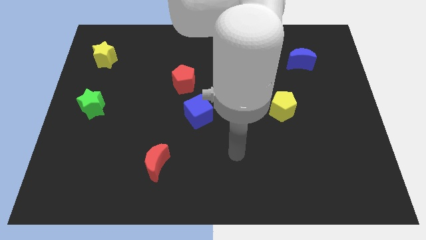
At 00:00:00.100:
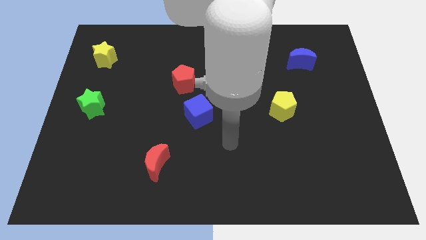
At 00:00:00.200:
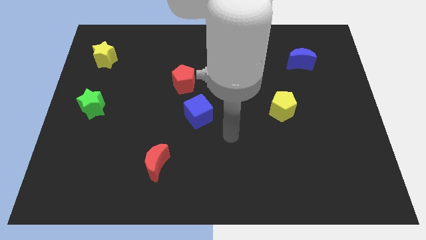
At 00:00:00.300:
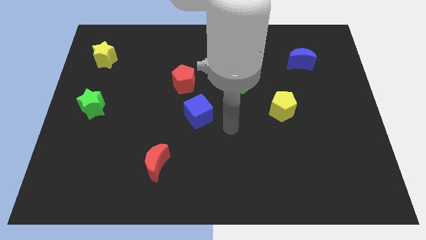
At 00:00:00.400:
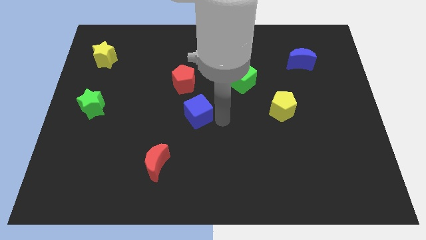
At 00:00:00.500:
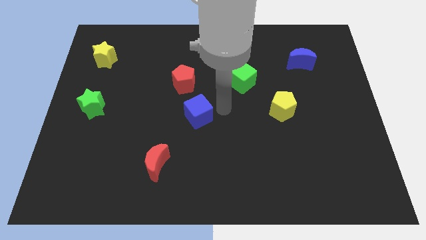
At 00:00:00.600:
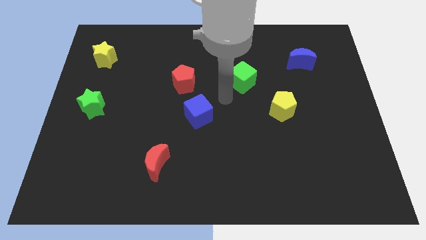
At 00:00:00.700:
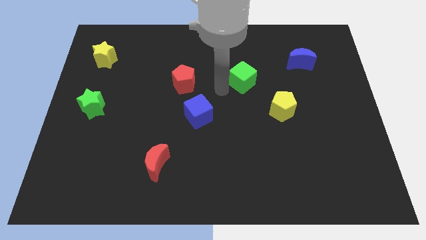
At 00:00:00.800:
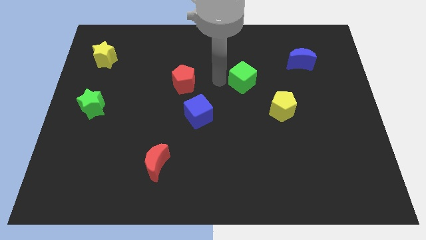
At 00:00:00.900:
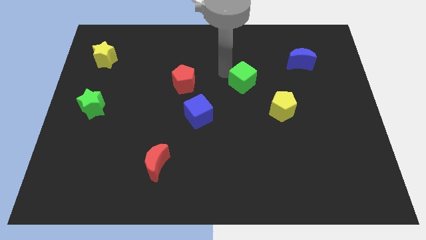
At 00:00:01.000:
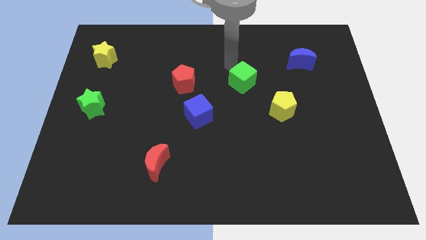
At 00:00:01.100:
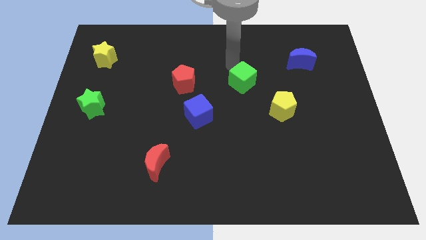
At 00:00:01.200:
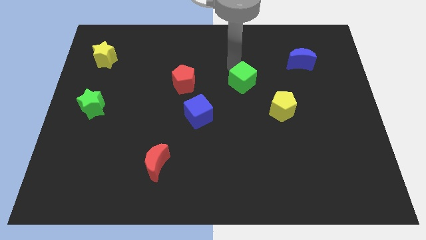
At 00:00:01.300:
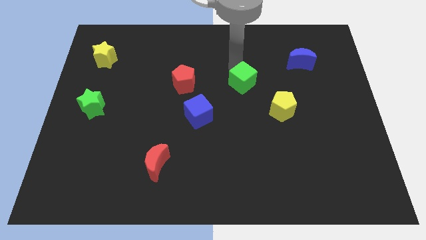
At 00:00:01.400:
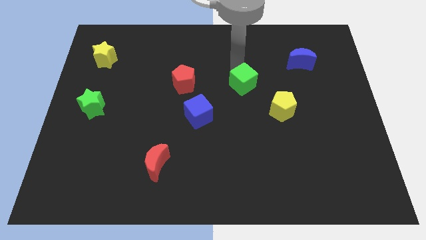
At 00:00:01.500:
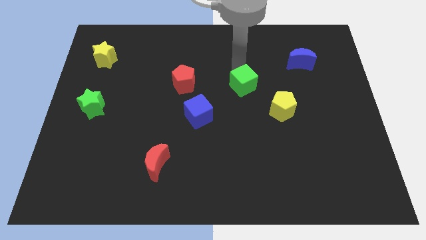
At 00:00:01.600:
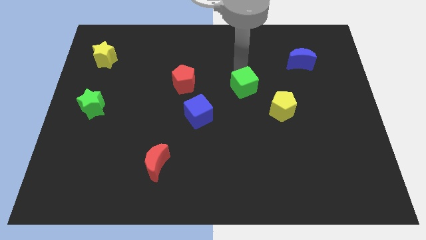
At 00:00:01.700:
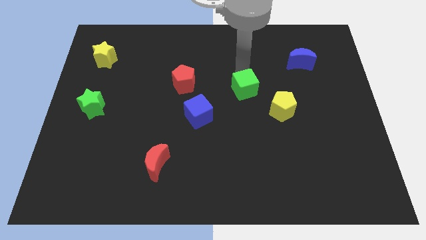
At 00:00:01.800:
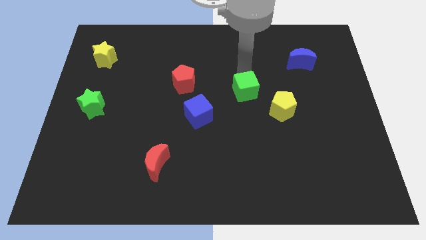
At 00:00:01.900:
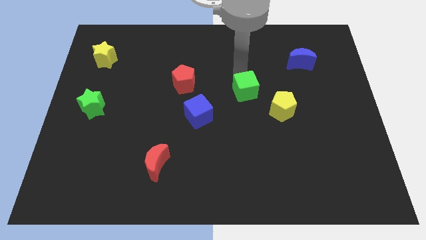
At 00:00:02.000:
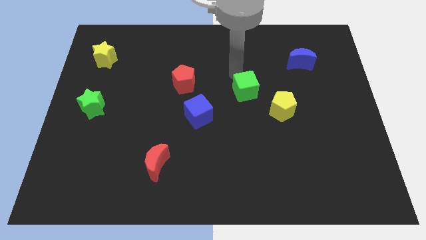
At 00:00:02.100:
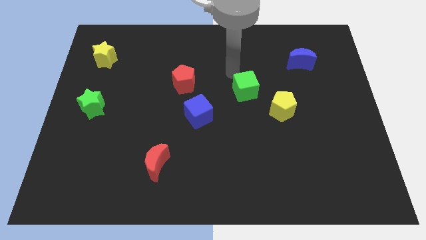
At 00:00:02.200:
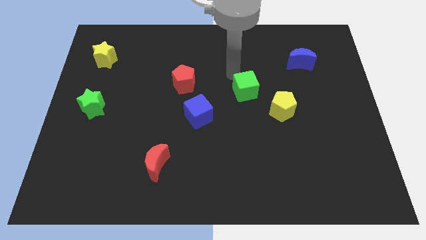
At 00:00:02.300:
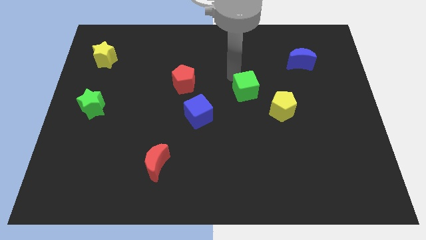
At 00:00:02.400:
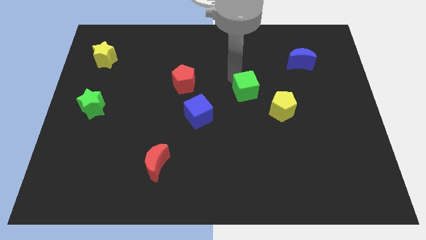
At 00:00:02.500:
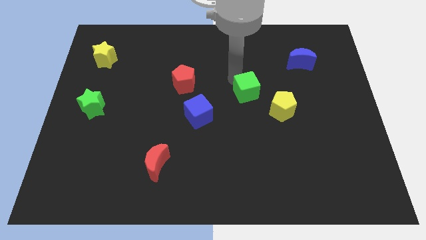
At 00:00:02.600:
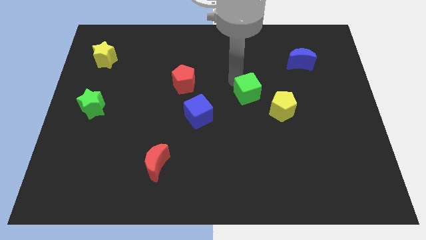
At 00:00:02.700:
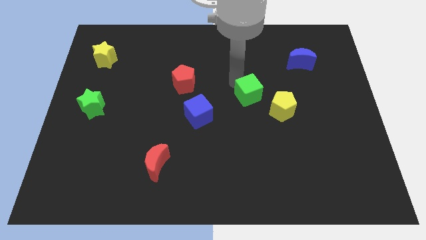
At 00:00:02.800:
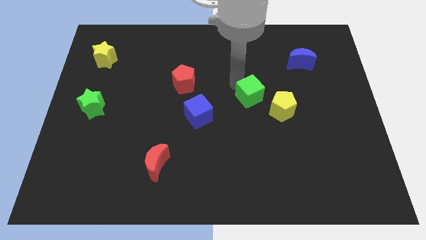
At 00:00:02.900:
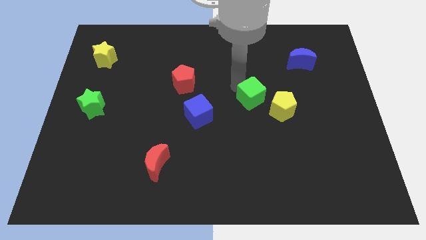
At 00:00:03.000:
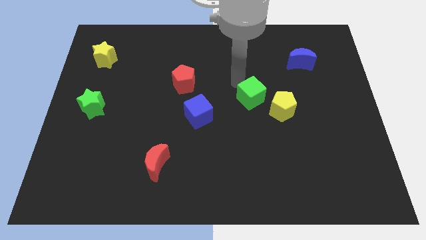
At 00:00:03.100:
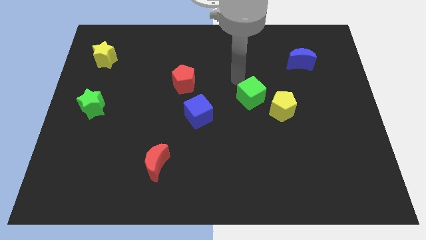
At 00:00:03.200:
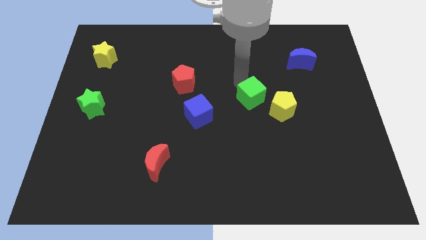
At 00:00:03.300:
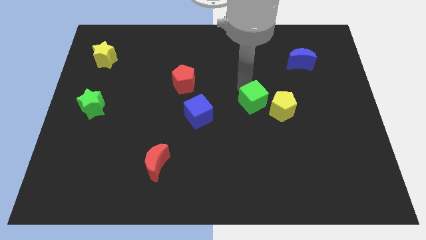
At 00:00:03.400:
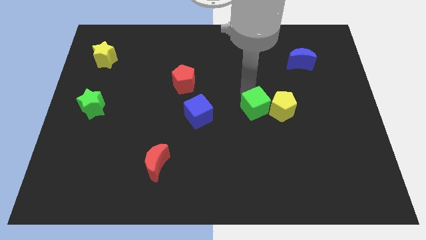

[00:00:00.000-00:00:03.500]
move the green cube a bit down and to the right diagonally

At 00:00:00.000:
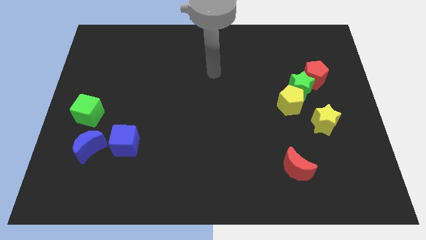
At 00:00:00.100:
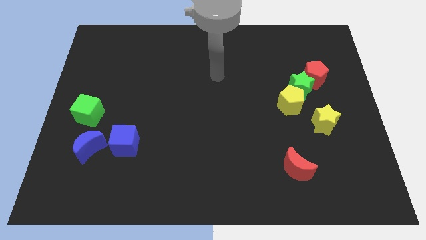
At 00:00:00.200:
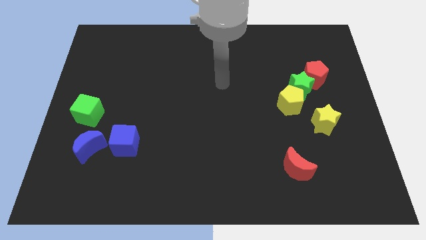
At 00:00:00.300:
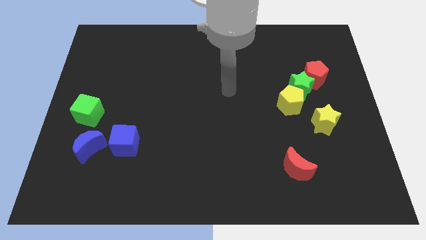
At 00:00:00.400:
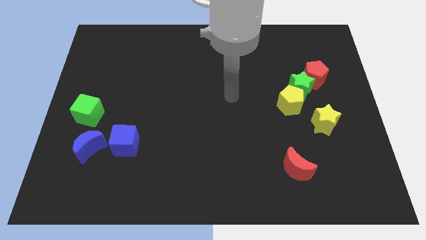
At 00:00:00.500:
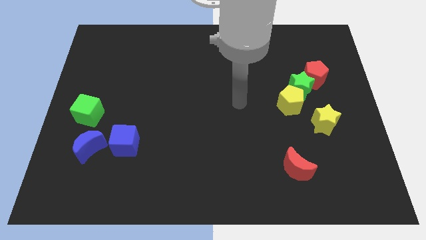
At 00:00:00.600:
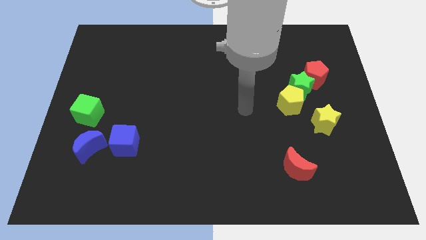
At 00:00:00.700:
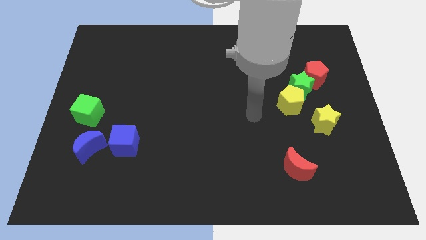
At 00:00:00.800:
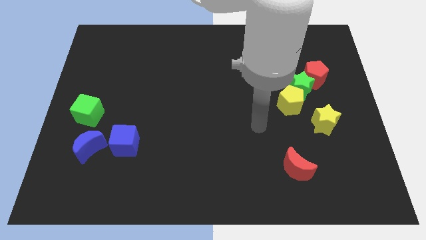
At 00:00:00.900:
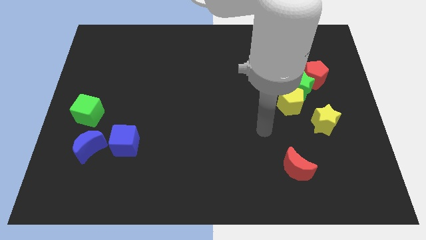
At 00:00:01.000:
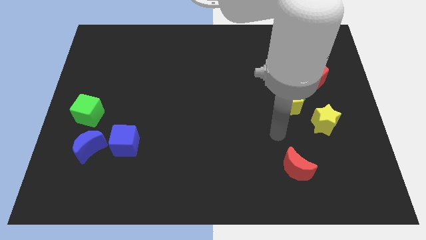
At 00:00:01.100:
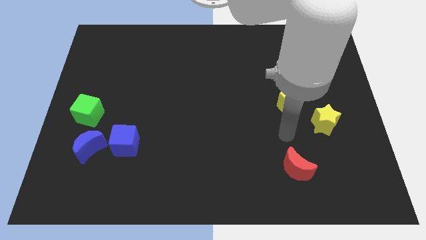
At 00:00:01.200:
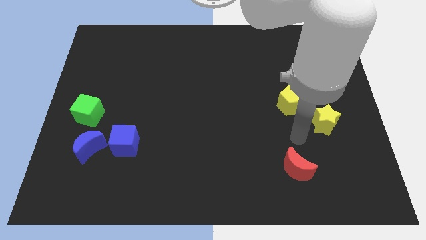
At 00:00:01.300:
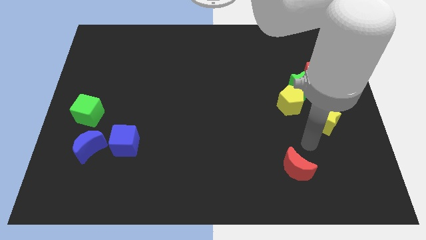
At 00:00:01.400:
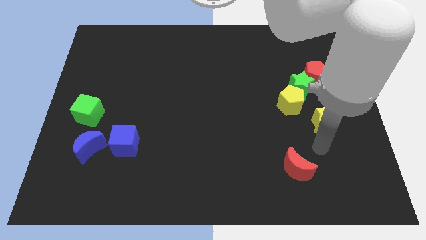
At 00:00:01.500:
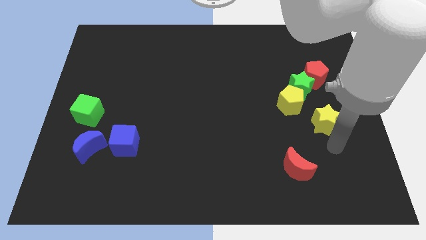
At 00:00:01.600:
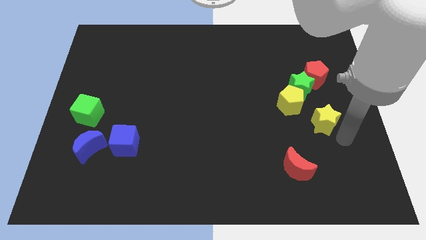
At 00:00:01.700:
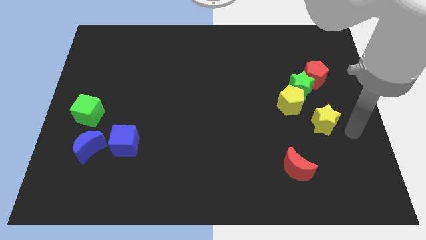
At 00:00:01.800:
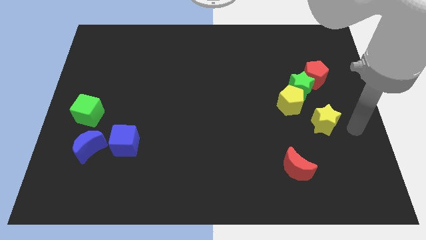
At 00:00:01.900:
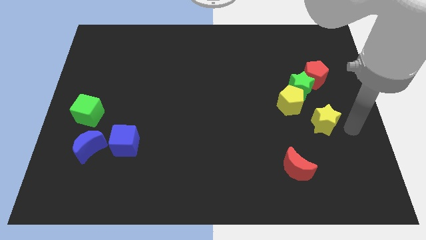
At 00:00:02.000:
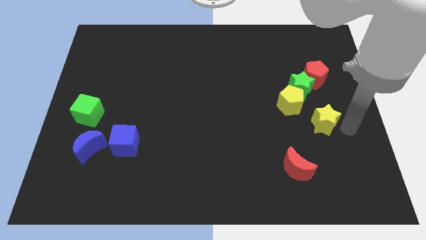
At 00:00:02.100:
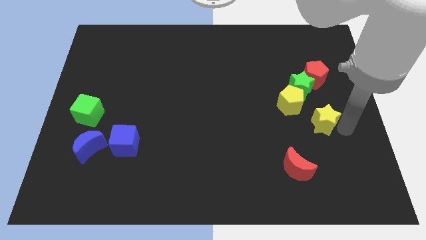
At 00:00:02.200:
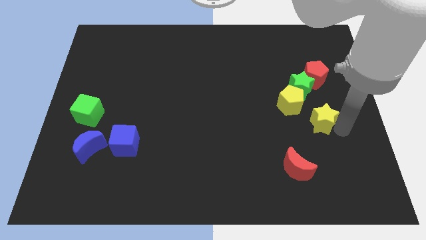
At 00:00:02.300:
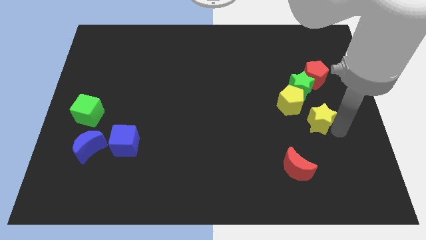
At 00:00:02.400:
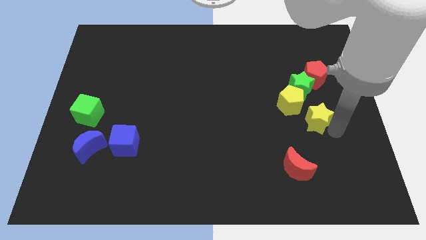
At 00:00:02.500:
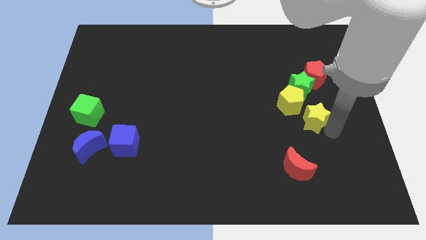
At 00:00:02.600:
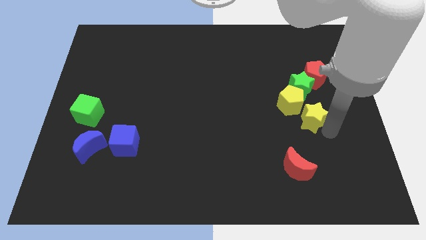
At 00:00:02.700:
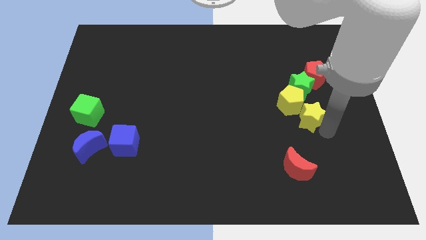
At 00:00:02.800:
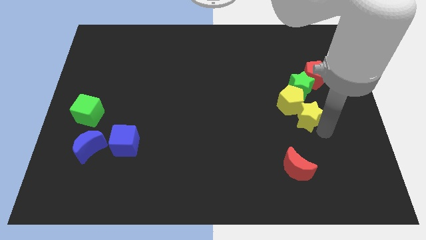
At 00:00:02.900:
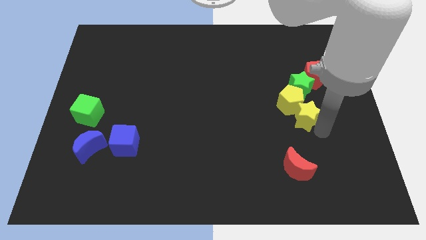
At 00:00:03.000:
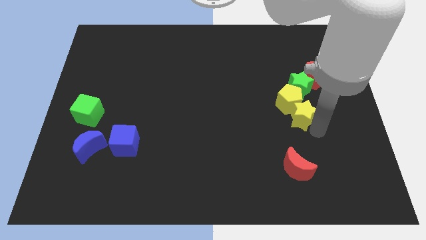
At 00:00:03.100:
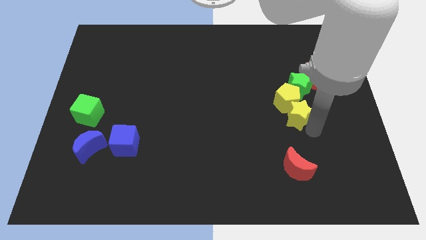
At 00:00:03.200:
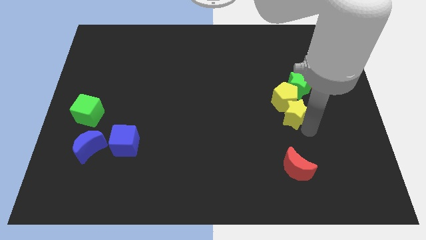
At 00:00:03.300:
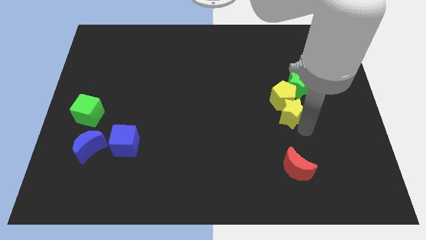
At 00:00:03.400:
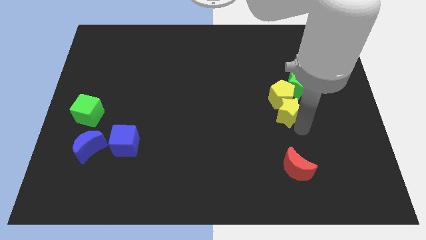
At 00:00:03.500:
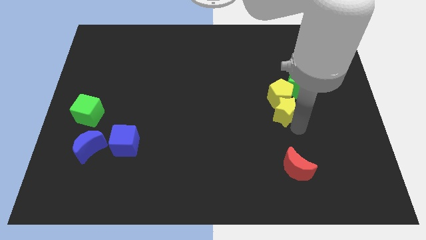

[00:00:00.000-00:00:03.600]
slide the yellow star slightly up and left

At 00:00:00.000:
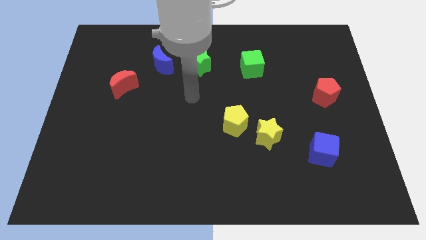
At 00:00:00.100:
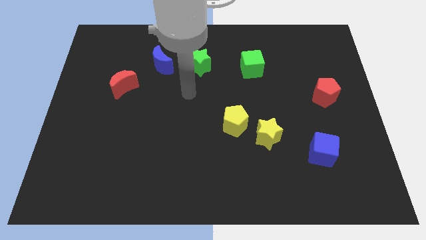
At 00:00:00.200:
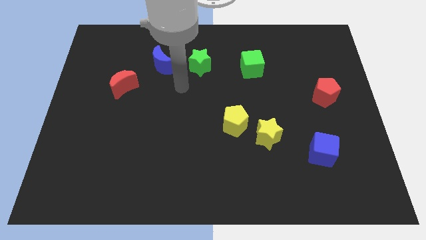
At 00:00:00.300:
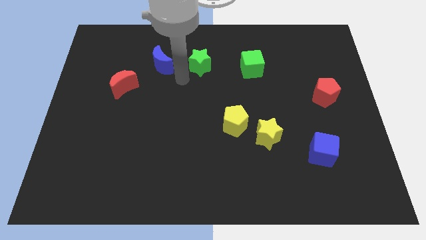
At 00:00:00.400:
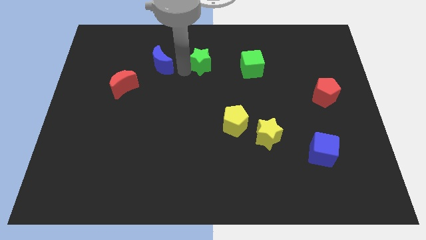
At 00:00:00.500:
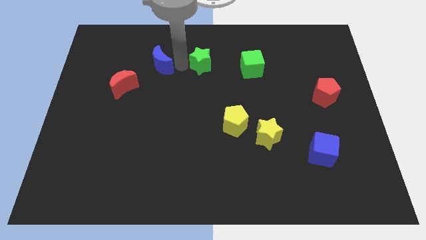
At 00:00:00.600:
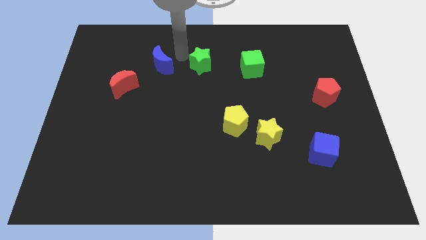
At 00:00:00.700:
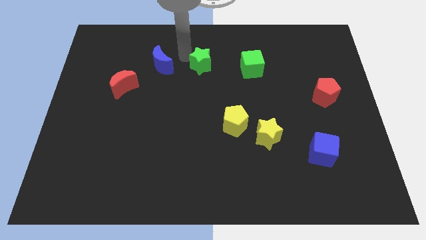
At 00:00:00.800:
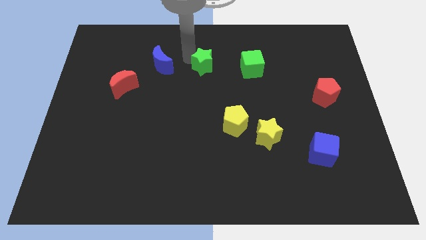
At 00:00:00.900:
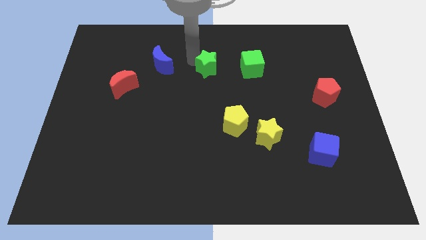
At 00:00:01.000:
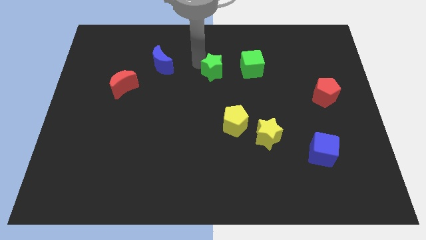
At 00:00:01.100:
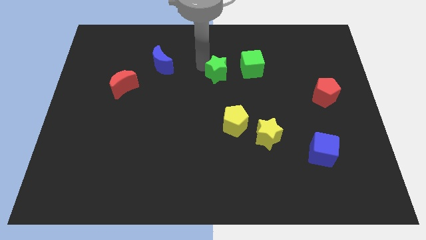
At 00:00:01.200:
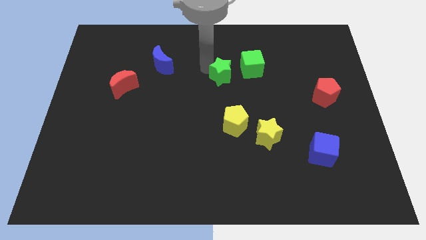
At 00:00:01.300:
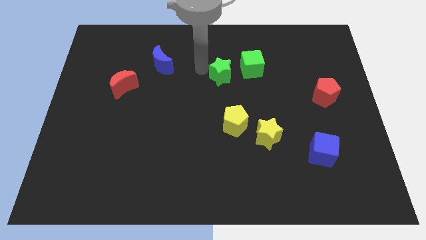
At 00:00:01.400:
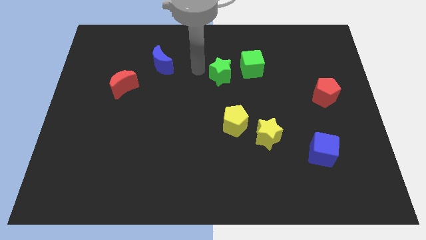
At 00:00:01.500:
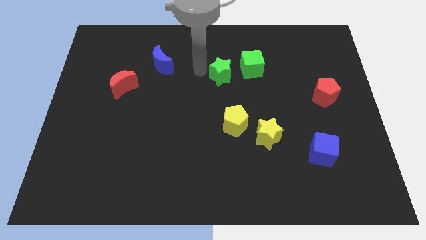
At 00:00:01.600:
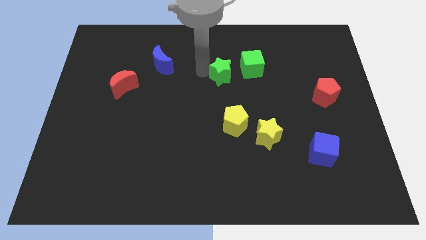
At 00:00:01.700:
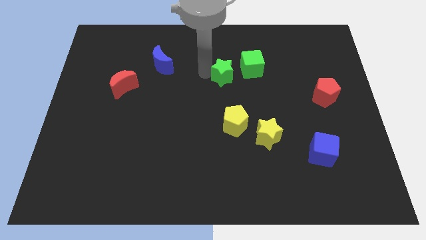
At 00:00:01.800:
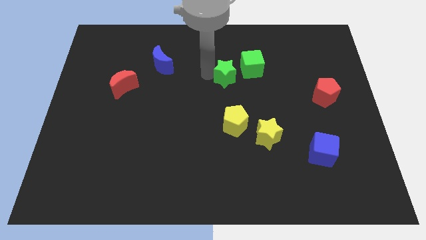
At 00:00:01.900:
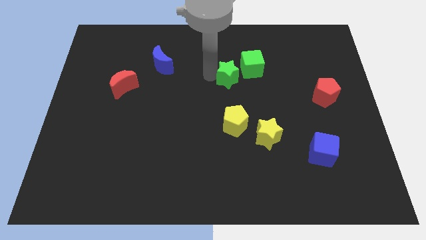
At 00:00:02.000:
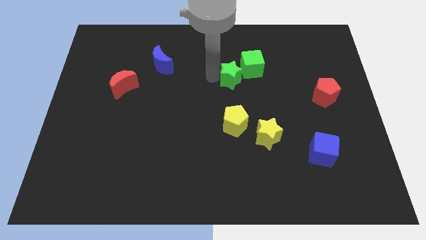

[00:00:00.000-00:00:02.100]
slightly push the green star to the right
